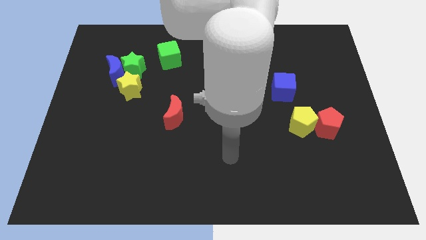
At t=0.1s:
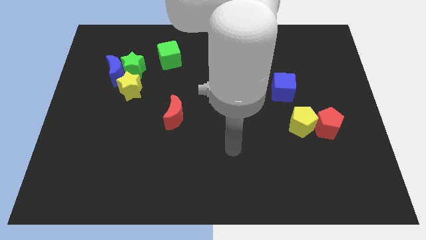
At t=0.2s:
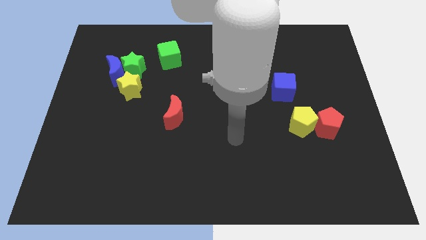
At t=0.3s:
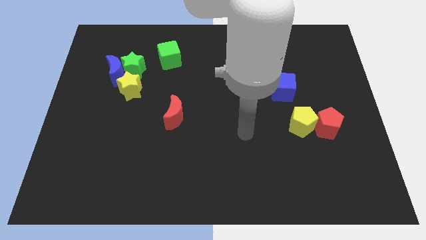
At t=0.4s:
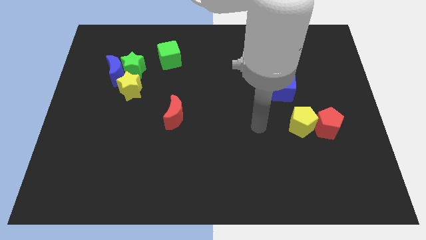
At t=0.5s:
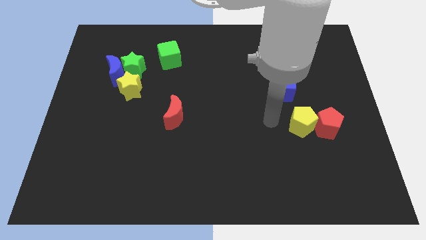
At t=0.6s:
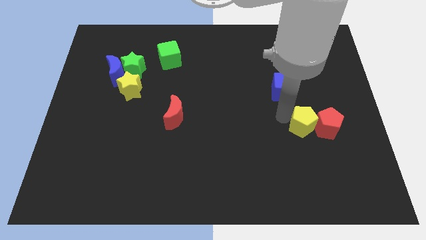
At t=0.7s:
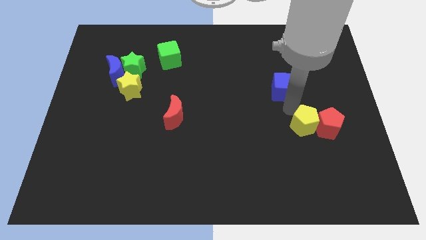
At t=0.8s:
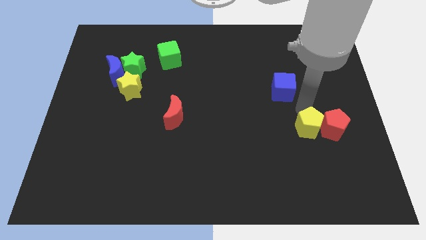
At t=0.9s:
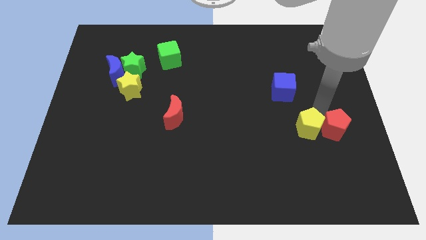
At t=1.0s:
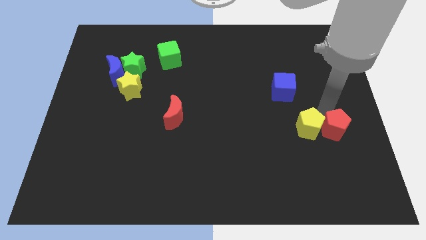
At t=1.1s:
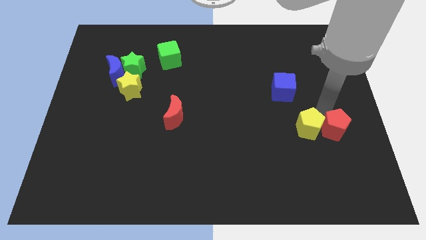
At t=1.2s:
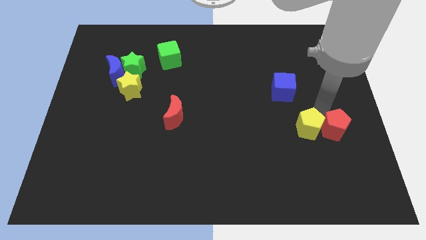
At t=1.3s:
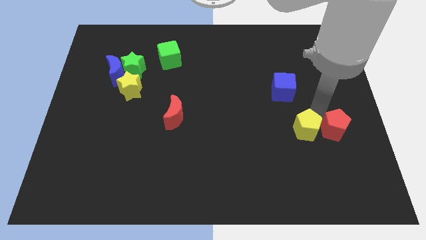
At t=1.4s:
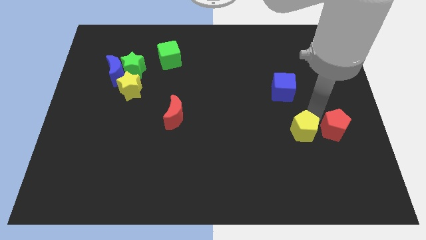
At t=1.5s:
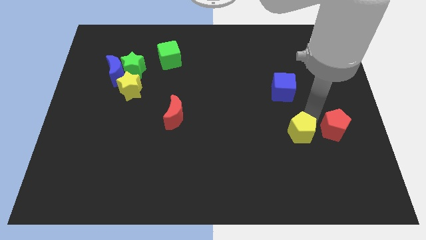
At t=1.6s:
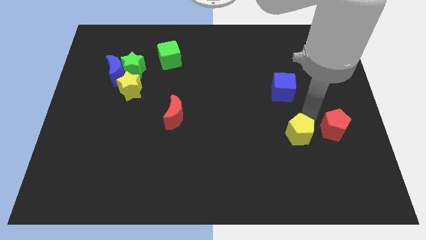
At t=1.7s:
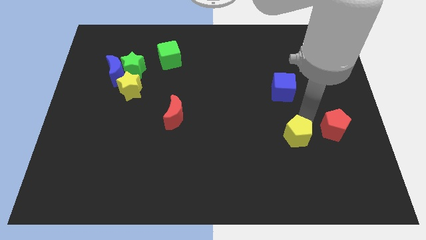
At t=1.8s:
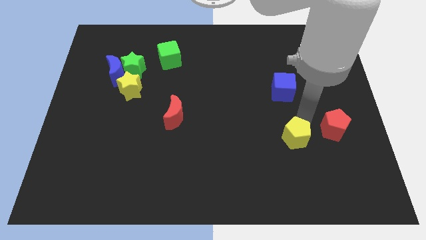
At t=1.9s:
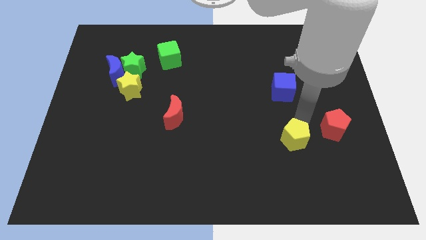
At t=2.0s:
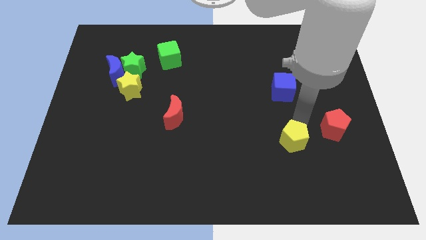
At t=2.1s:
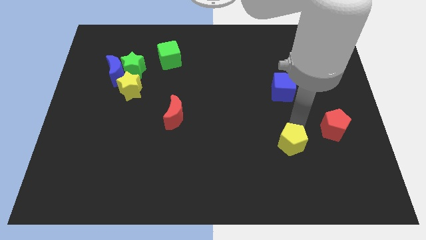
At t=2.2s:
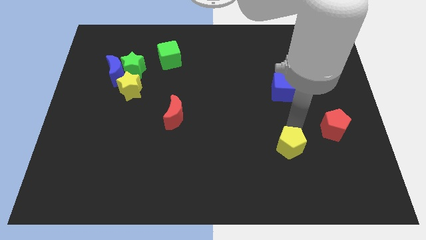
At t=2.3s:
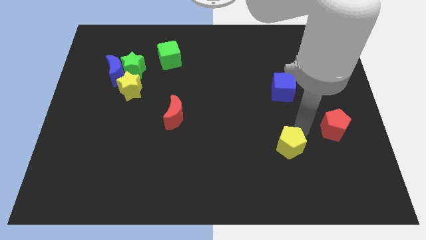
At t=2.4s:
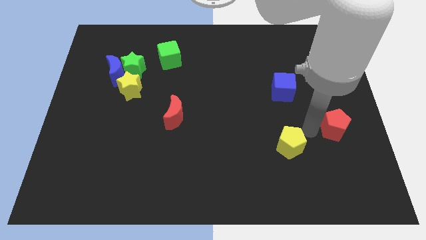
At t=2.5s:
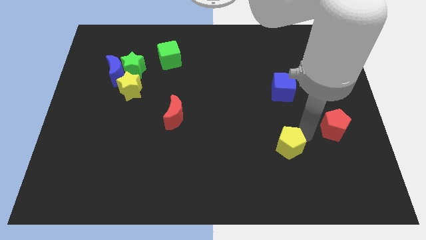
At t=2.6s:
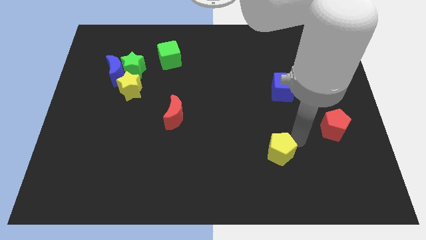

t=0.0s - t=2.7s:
push the yellow pentagon a bit down and left diagonally

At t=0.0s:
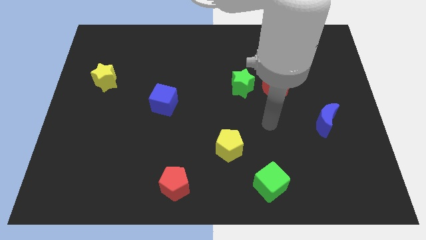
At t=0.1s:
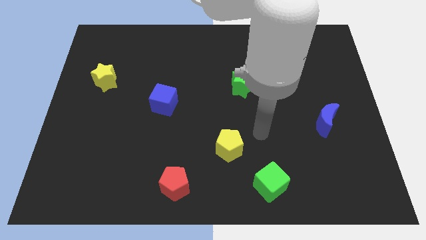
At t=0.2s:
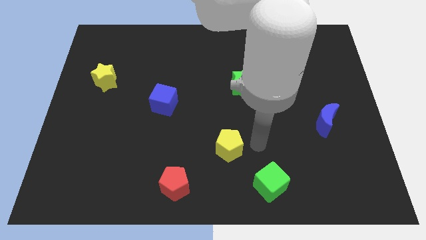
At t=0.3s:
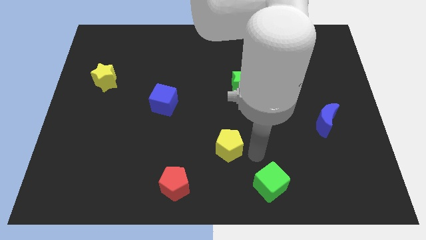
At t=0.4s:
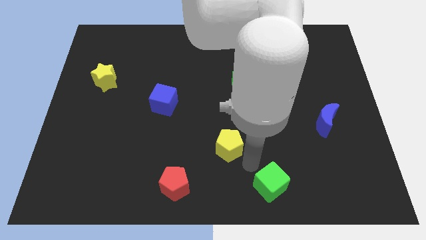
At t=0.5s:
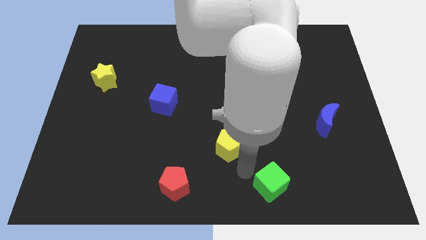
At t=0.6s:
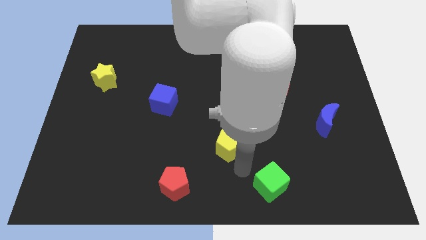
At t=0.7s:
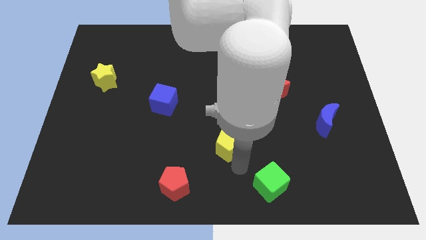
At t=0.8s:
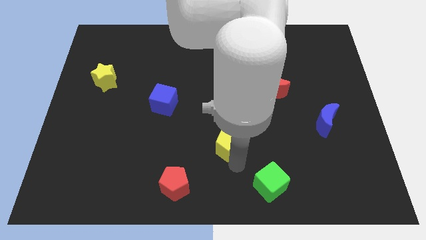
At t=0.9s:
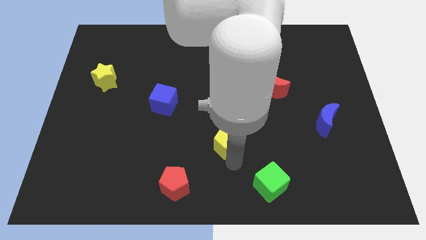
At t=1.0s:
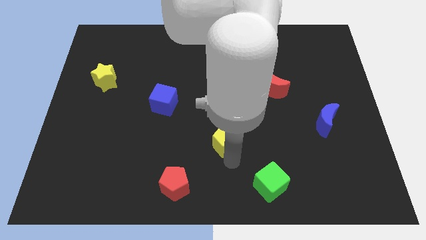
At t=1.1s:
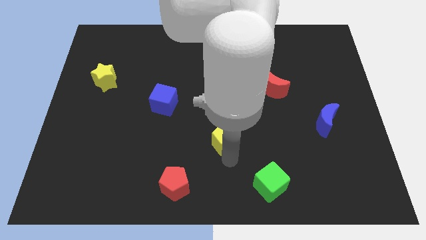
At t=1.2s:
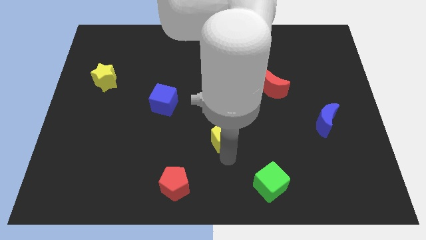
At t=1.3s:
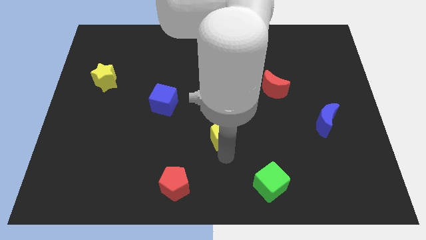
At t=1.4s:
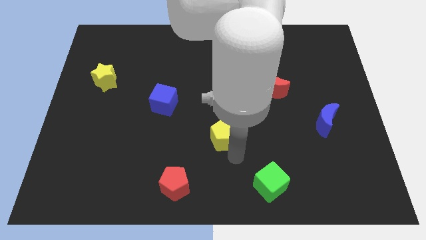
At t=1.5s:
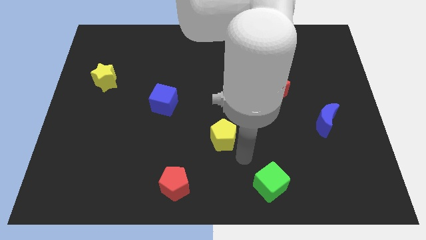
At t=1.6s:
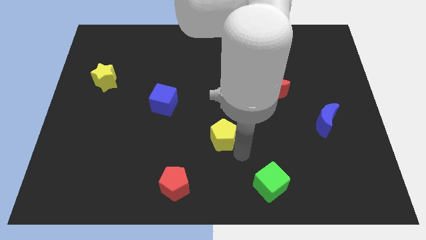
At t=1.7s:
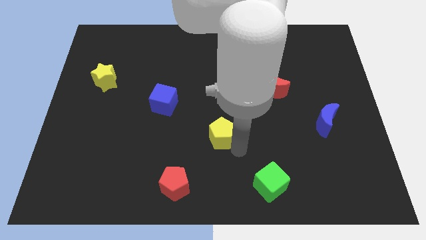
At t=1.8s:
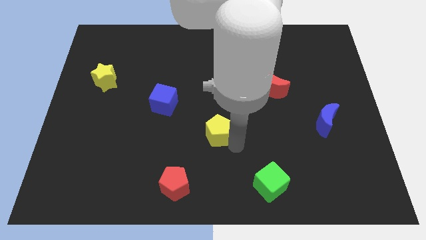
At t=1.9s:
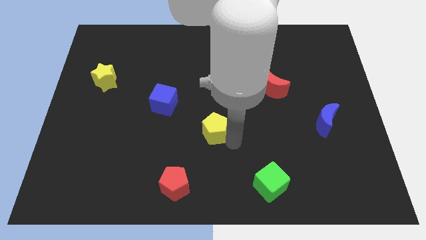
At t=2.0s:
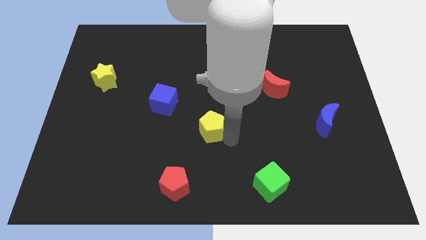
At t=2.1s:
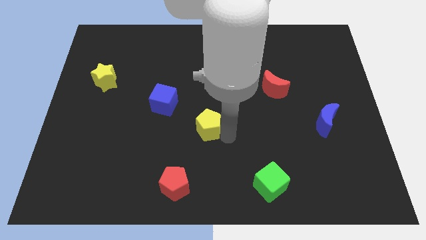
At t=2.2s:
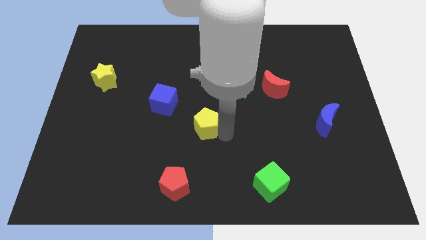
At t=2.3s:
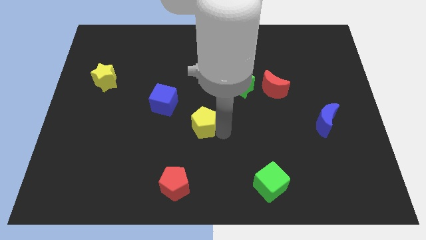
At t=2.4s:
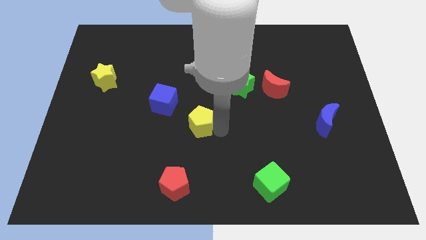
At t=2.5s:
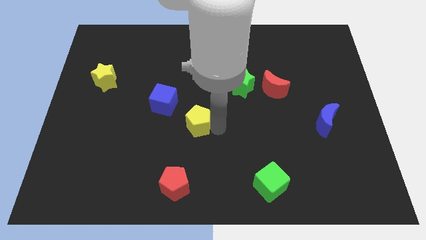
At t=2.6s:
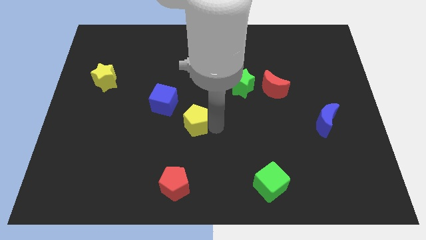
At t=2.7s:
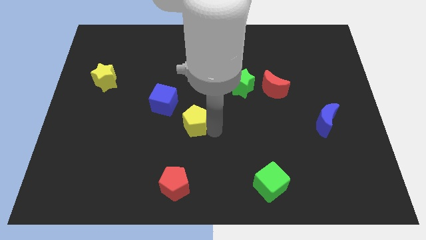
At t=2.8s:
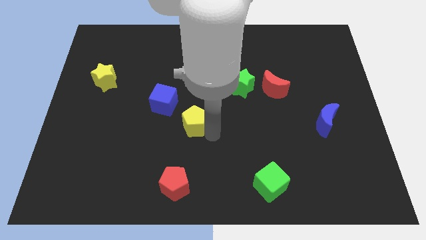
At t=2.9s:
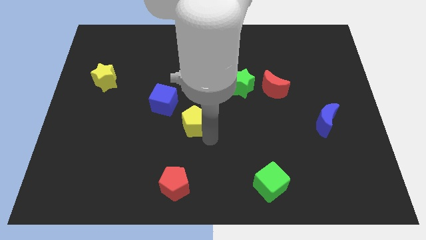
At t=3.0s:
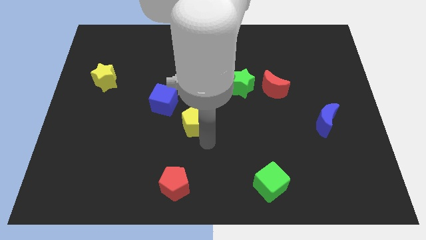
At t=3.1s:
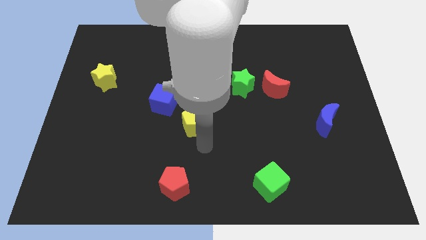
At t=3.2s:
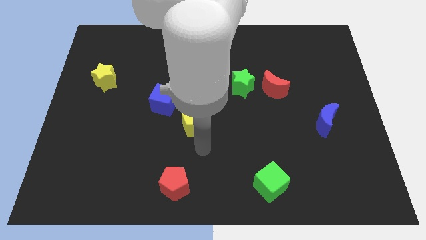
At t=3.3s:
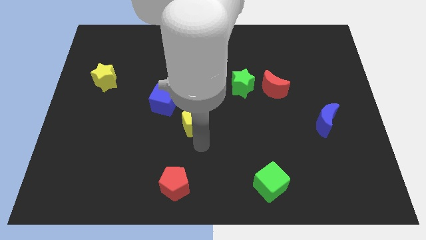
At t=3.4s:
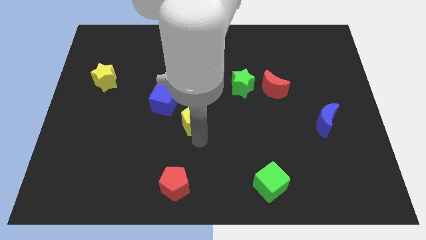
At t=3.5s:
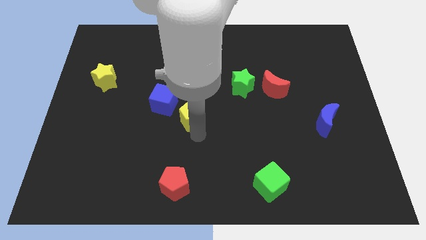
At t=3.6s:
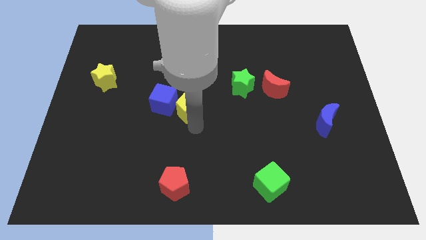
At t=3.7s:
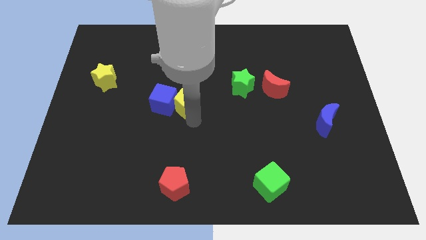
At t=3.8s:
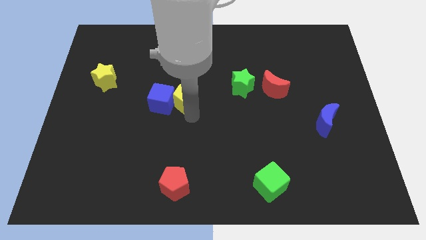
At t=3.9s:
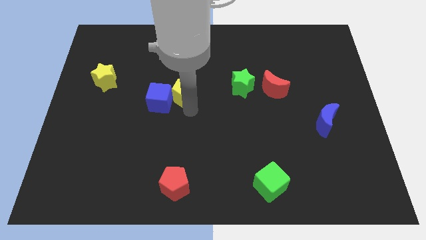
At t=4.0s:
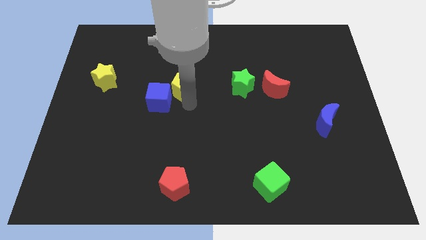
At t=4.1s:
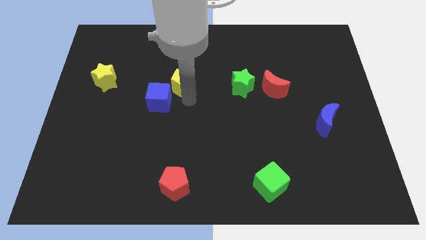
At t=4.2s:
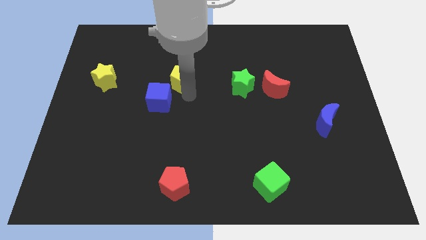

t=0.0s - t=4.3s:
slide the yellow pentagon diagonally upwards and left

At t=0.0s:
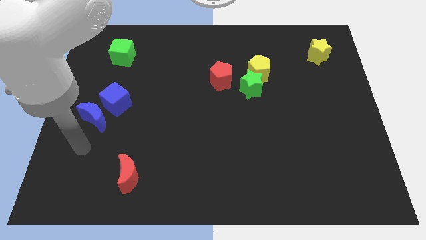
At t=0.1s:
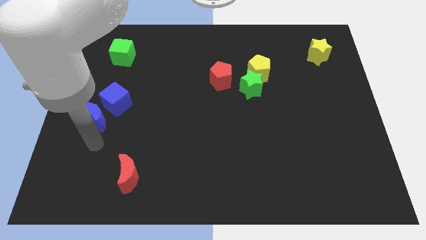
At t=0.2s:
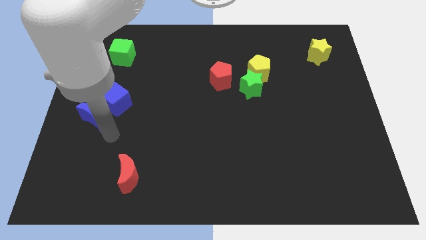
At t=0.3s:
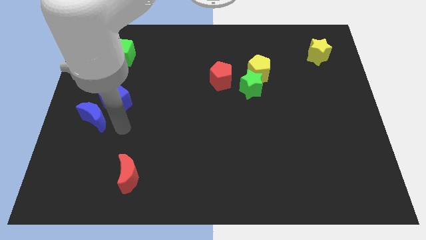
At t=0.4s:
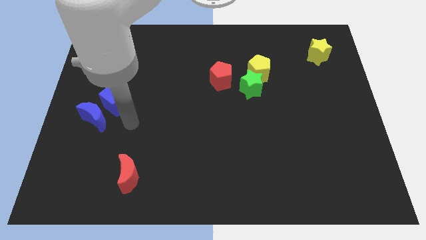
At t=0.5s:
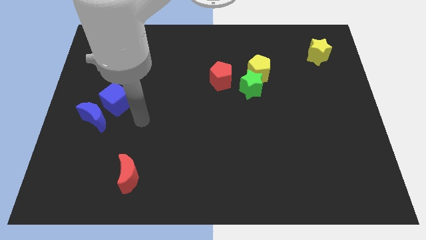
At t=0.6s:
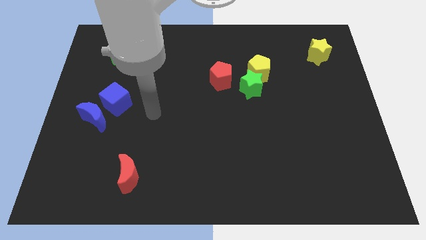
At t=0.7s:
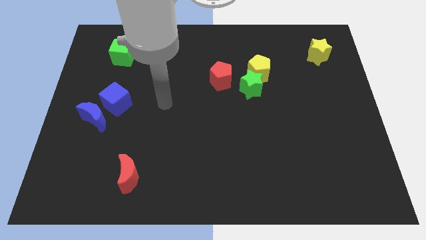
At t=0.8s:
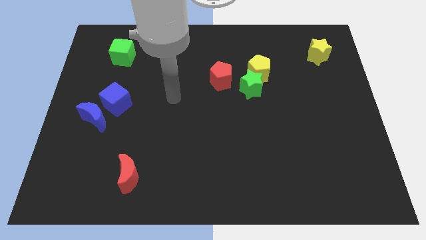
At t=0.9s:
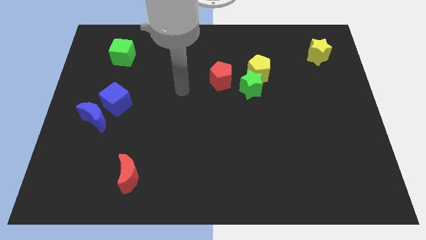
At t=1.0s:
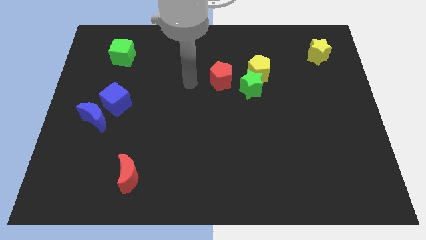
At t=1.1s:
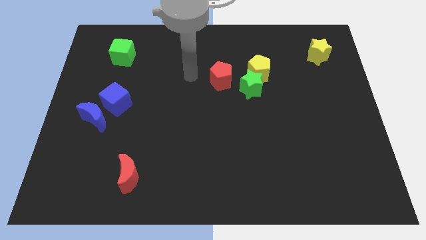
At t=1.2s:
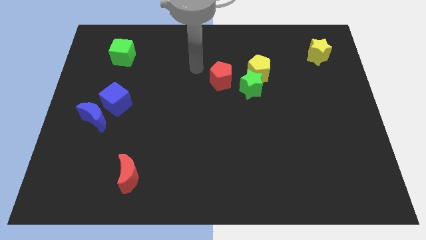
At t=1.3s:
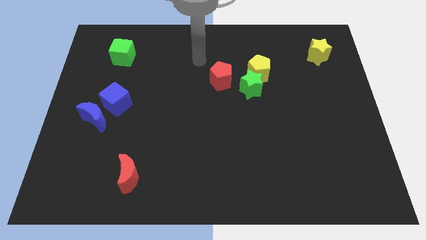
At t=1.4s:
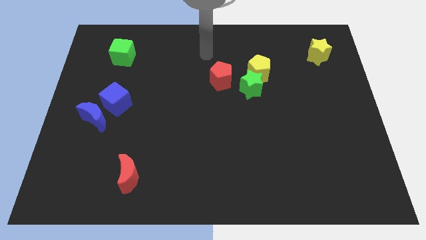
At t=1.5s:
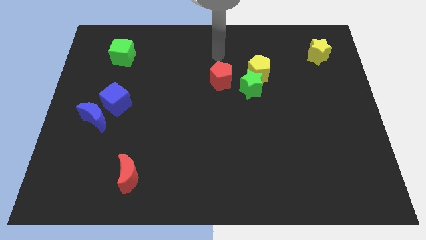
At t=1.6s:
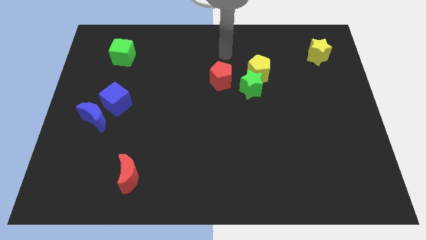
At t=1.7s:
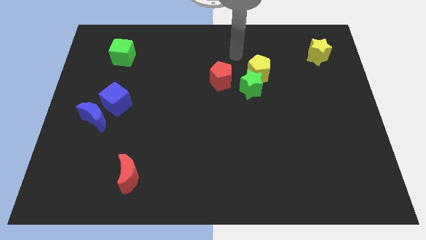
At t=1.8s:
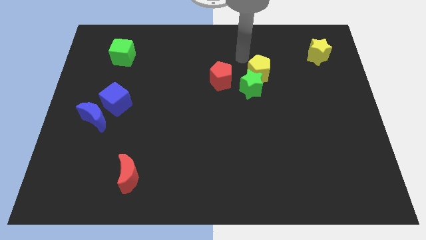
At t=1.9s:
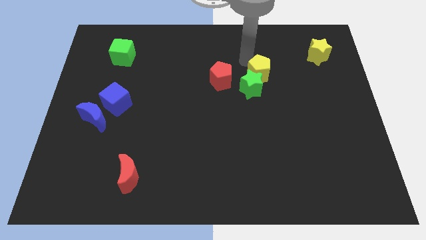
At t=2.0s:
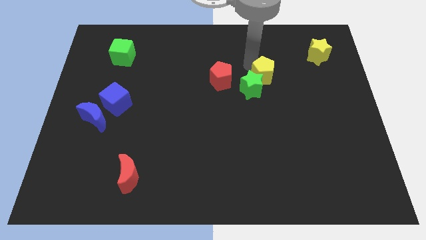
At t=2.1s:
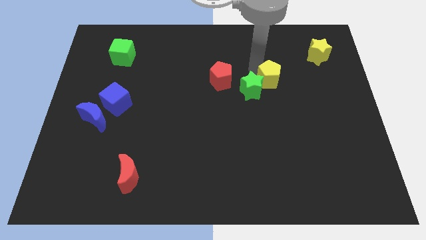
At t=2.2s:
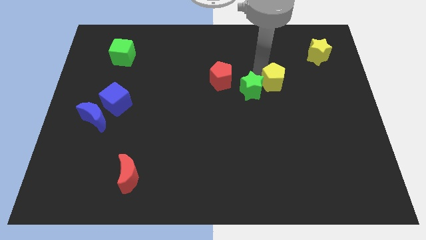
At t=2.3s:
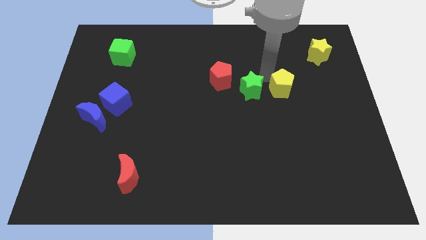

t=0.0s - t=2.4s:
slightly move the yellow pentagon diagonally downwards and right
